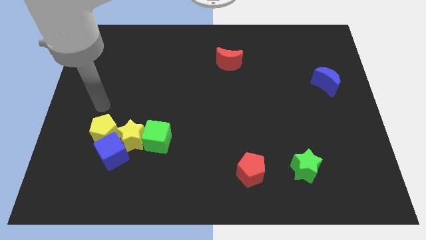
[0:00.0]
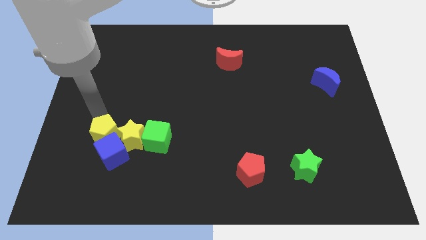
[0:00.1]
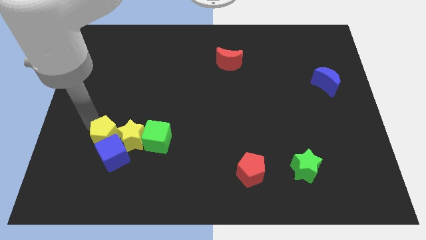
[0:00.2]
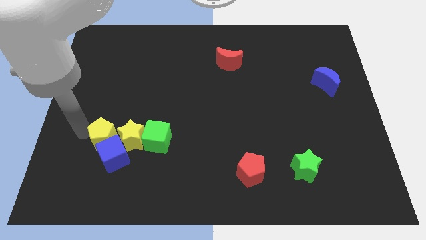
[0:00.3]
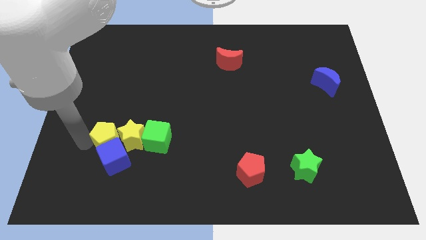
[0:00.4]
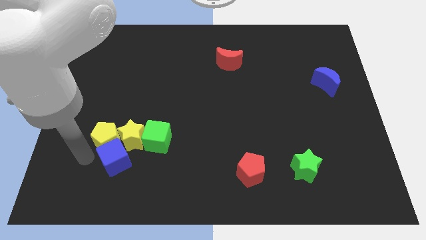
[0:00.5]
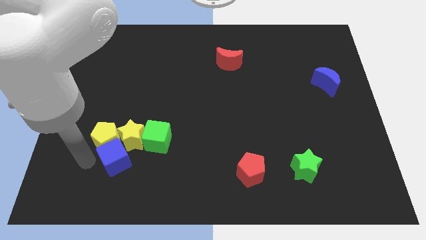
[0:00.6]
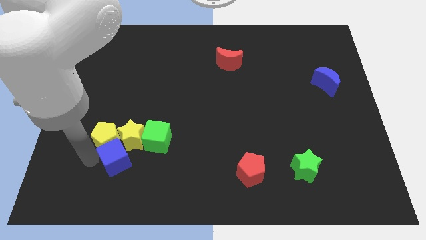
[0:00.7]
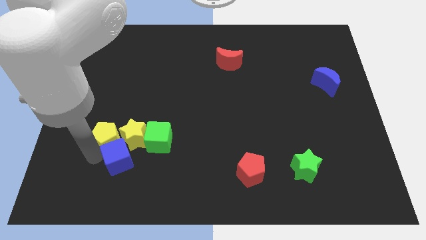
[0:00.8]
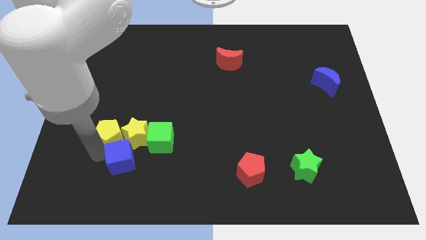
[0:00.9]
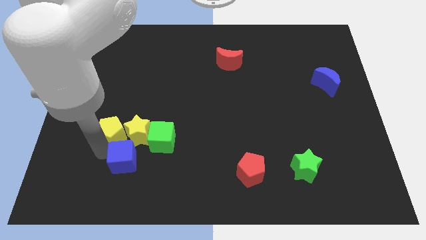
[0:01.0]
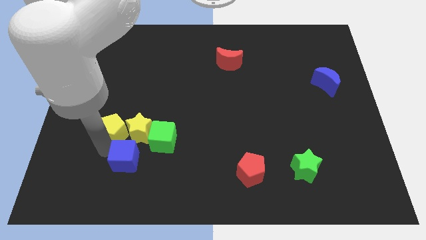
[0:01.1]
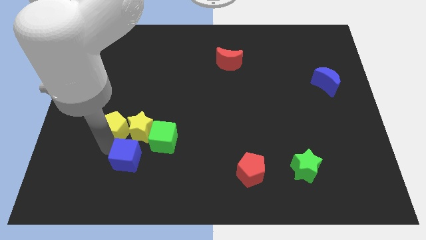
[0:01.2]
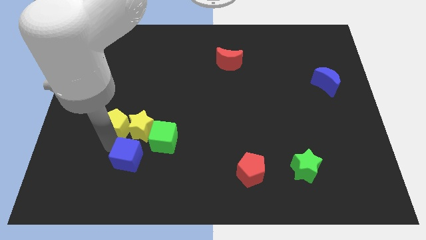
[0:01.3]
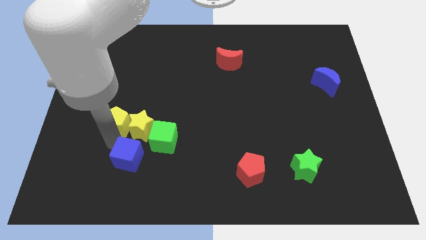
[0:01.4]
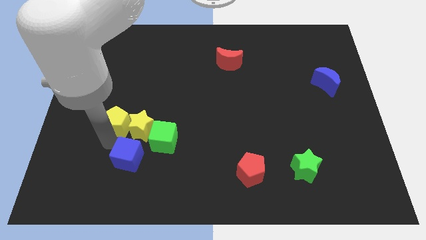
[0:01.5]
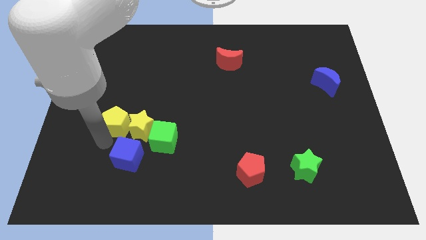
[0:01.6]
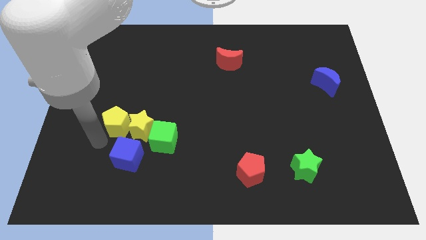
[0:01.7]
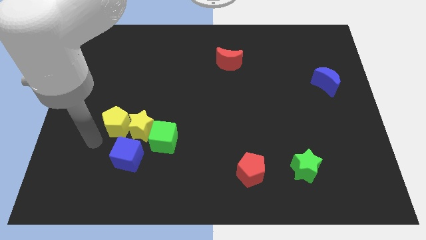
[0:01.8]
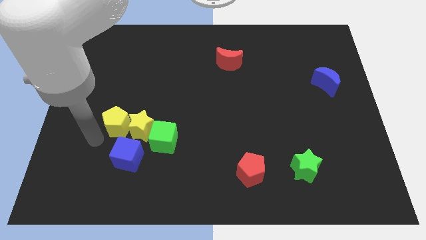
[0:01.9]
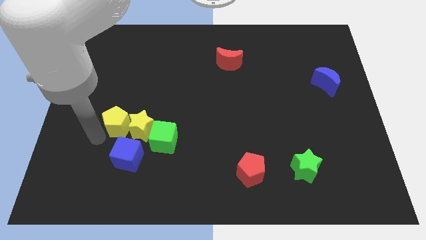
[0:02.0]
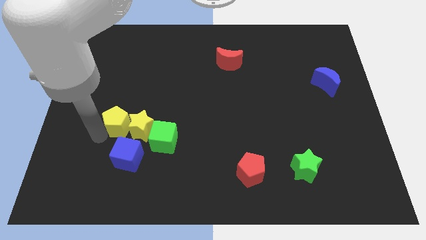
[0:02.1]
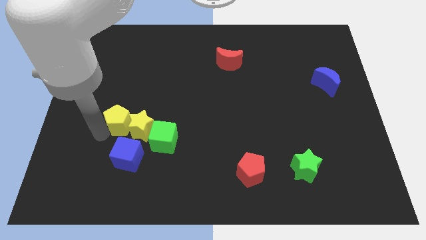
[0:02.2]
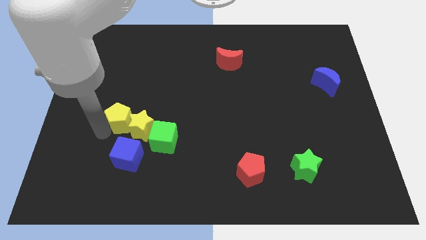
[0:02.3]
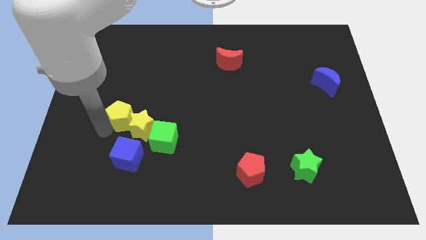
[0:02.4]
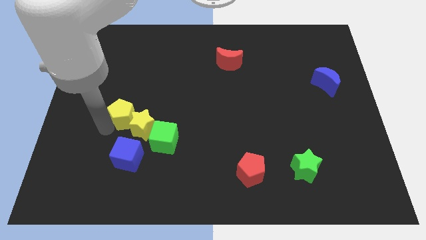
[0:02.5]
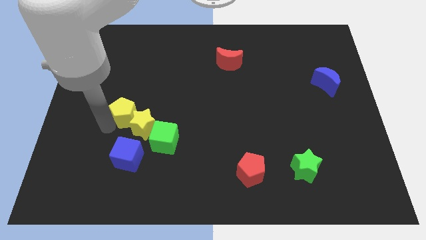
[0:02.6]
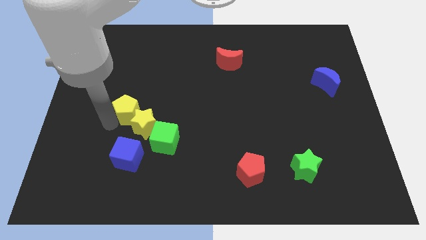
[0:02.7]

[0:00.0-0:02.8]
slide the yellow pentagon upwards and right diagonally a bit

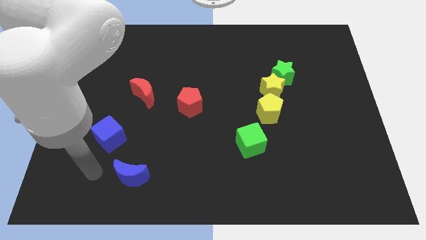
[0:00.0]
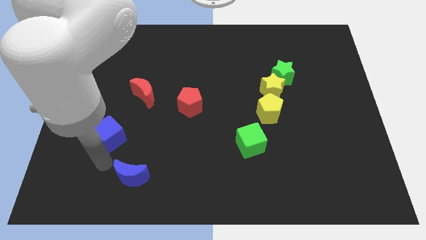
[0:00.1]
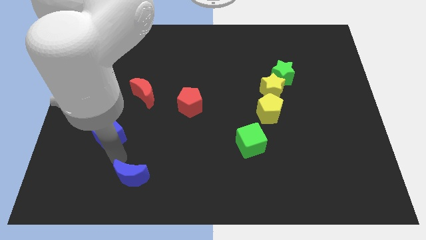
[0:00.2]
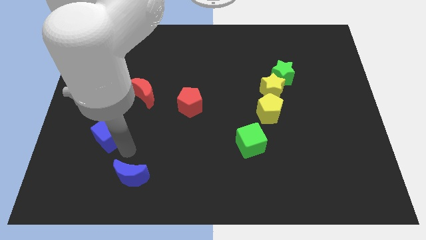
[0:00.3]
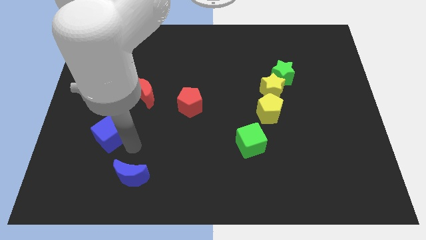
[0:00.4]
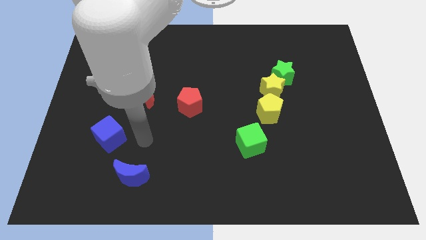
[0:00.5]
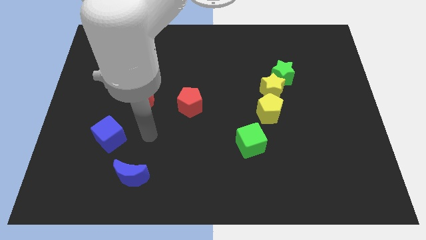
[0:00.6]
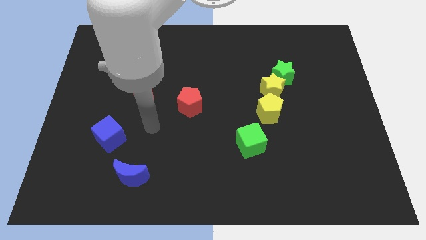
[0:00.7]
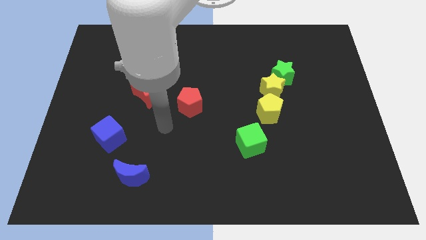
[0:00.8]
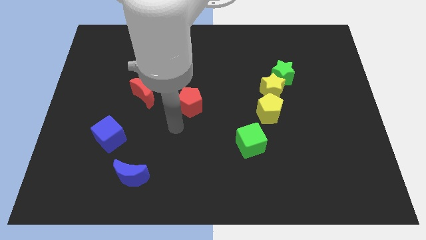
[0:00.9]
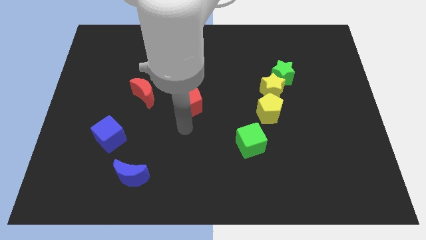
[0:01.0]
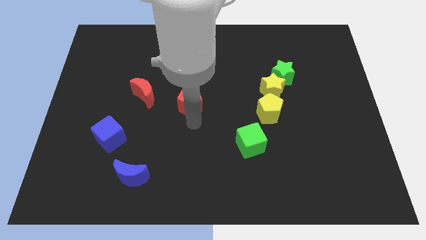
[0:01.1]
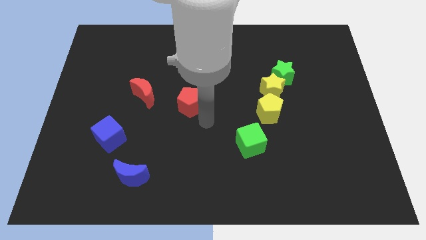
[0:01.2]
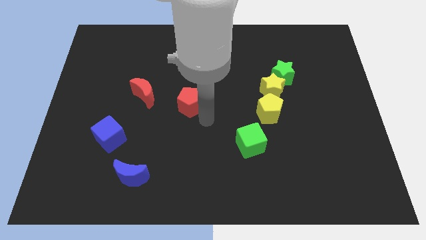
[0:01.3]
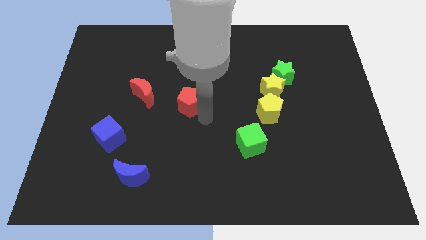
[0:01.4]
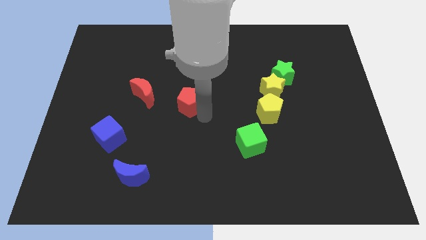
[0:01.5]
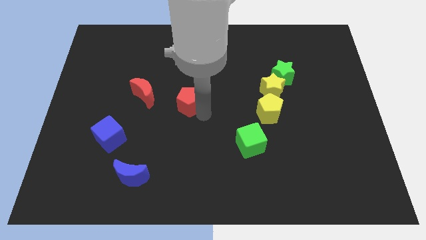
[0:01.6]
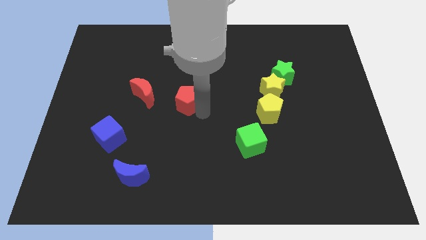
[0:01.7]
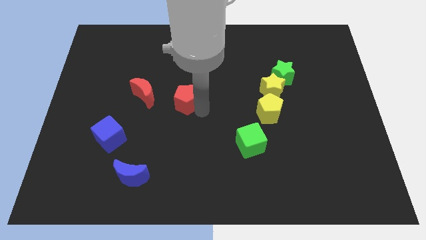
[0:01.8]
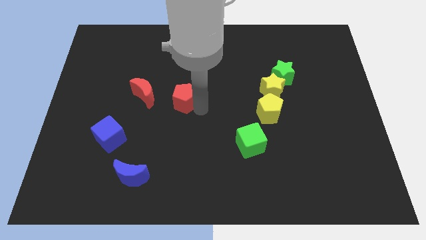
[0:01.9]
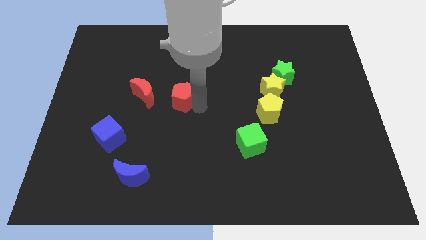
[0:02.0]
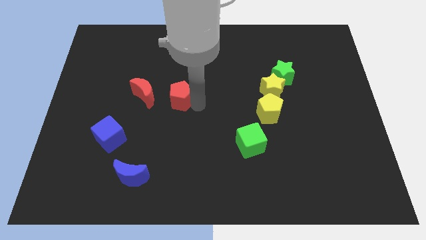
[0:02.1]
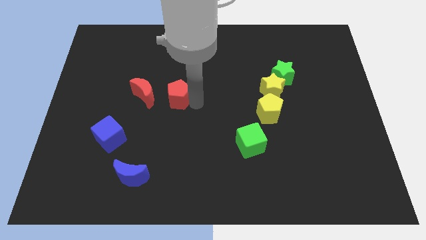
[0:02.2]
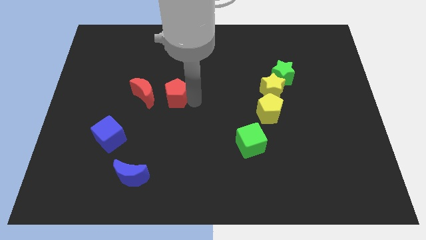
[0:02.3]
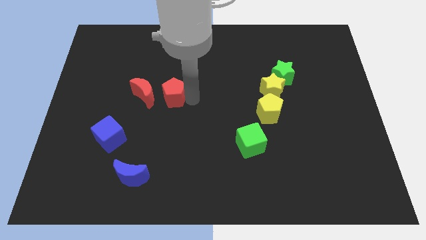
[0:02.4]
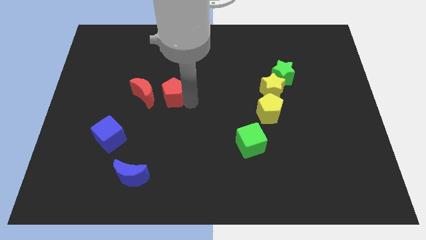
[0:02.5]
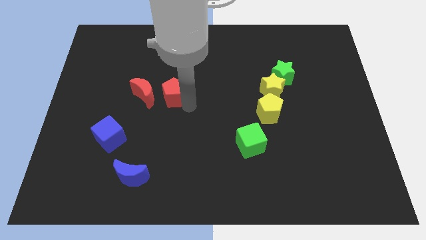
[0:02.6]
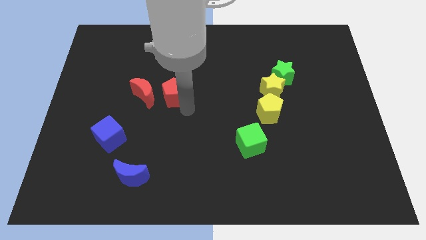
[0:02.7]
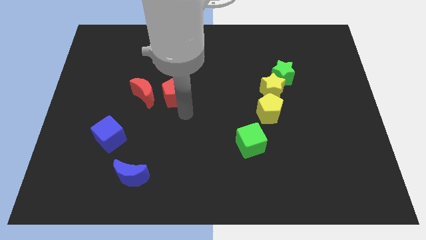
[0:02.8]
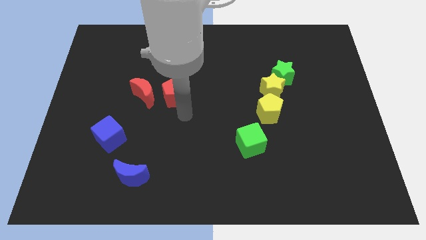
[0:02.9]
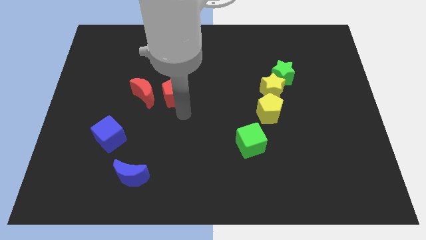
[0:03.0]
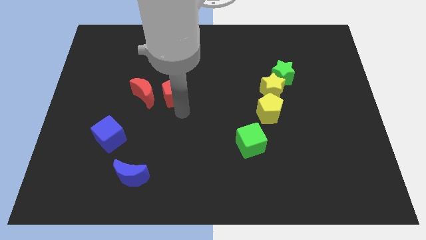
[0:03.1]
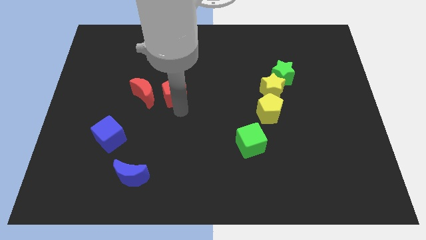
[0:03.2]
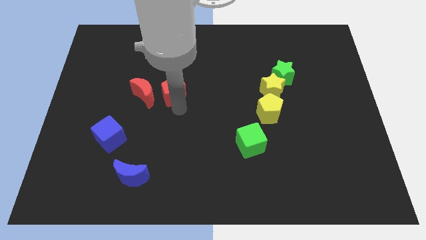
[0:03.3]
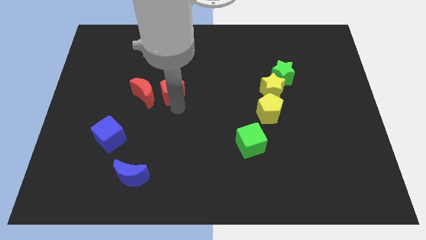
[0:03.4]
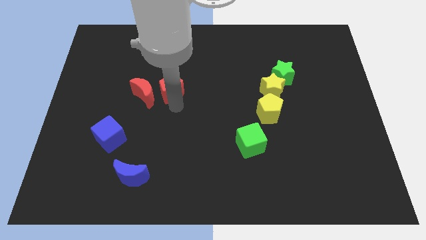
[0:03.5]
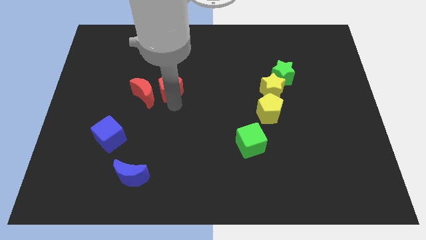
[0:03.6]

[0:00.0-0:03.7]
push the red pentagon slightly up and to the left

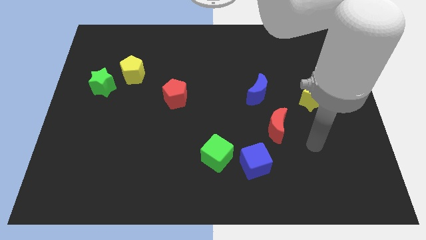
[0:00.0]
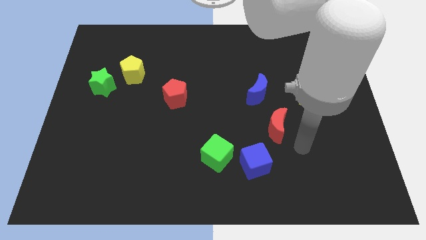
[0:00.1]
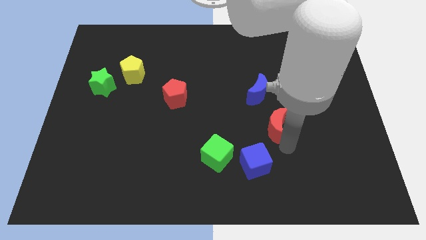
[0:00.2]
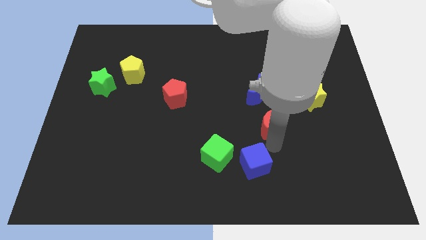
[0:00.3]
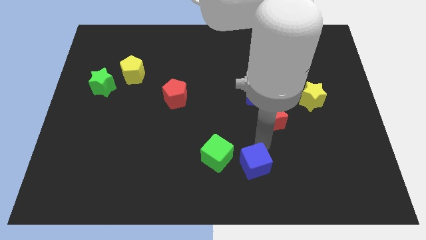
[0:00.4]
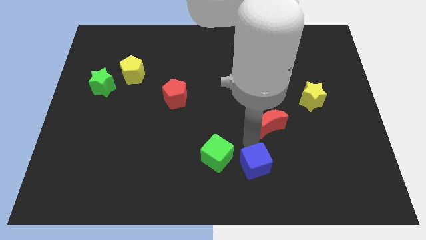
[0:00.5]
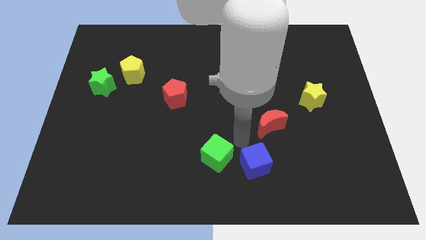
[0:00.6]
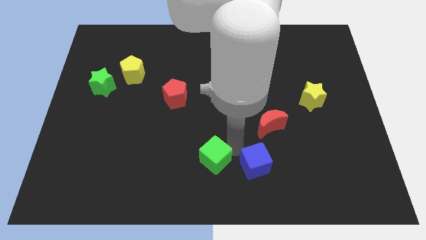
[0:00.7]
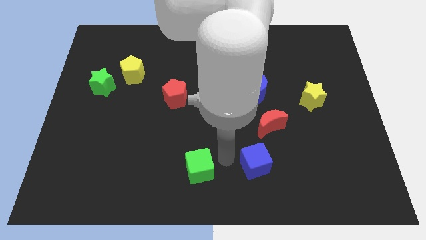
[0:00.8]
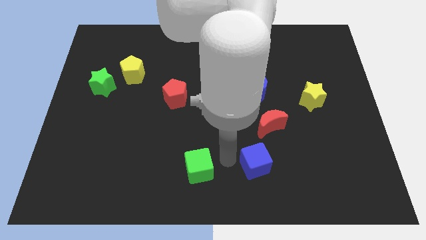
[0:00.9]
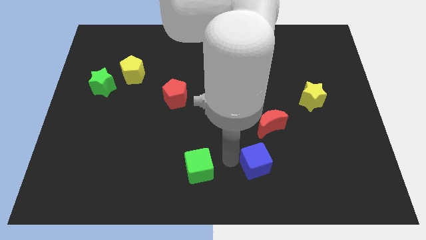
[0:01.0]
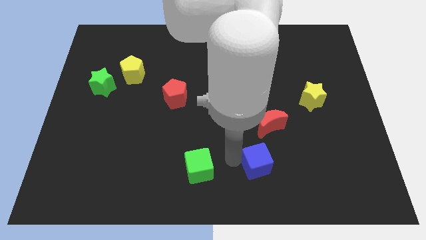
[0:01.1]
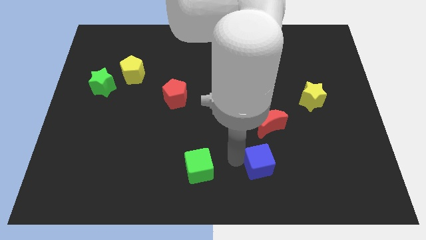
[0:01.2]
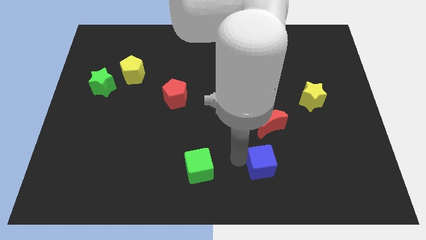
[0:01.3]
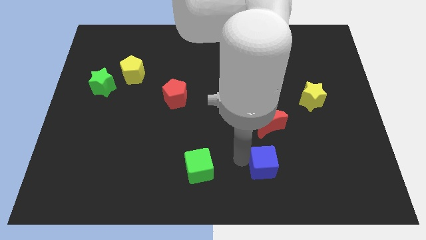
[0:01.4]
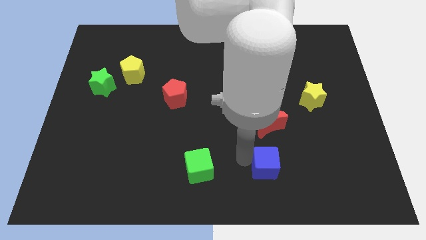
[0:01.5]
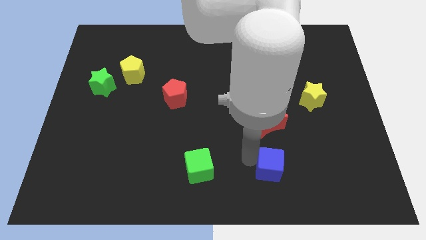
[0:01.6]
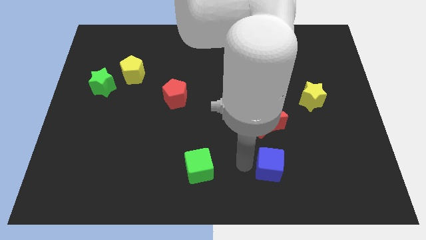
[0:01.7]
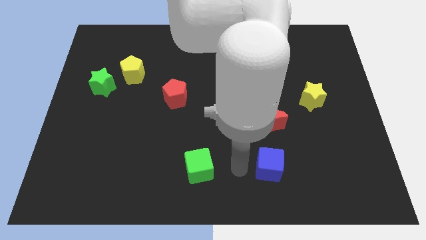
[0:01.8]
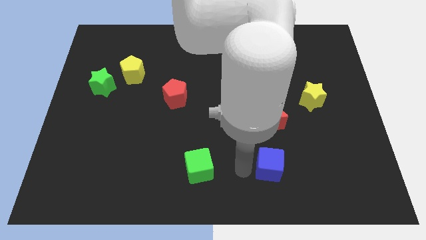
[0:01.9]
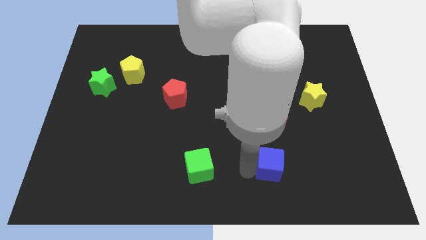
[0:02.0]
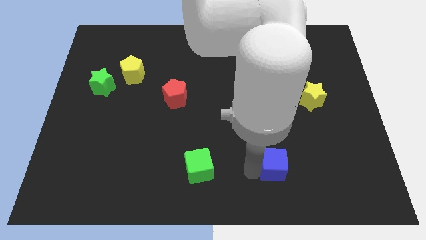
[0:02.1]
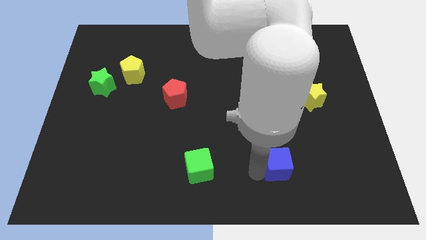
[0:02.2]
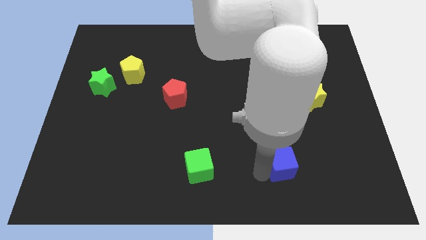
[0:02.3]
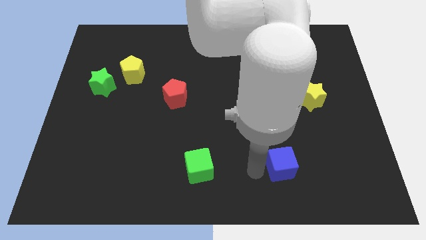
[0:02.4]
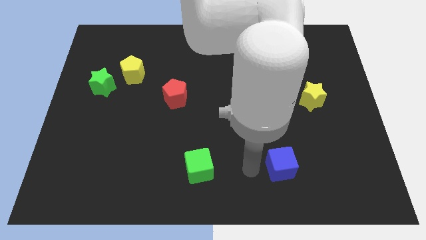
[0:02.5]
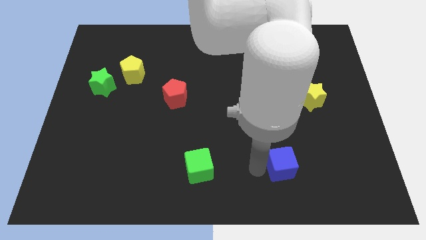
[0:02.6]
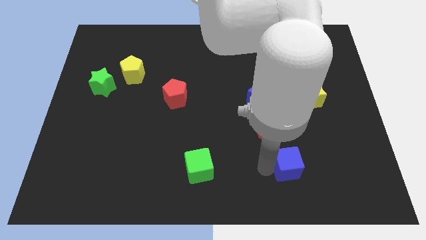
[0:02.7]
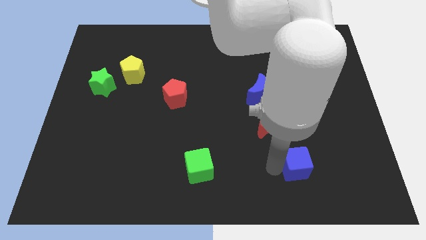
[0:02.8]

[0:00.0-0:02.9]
slightly slide the blue cube to the right
